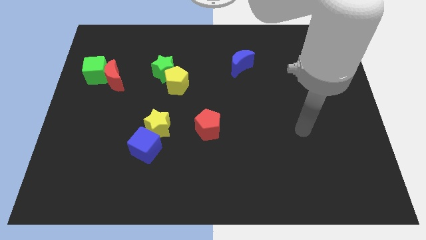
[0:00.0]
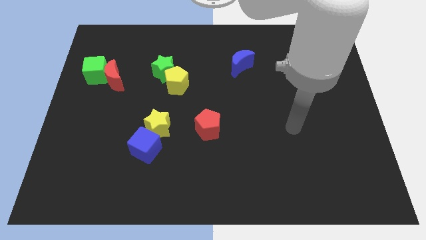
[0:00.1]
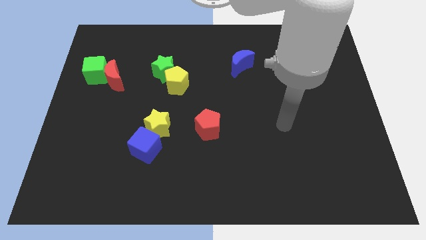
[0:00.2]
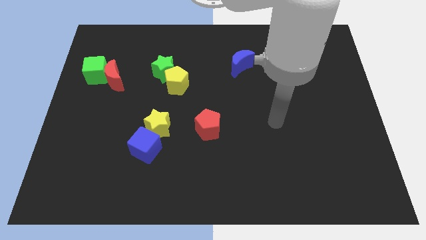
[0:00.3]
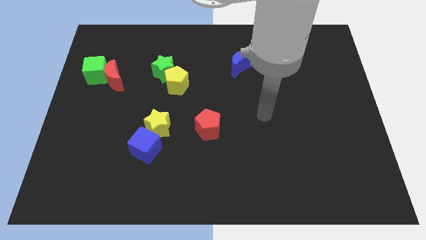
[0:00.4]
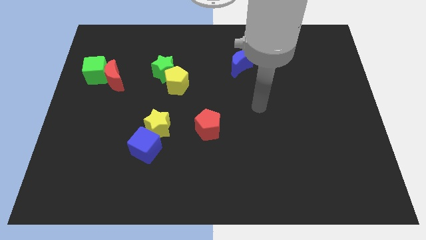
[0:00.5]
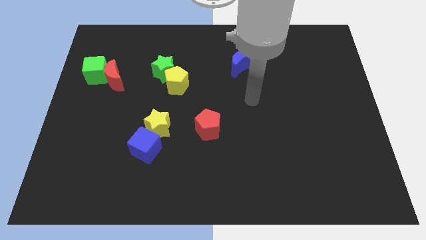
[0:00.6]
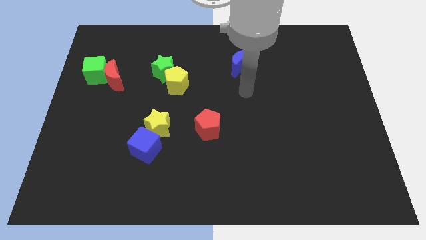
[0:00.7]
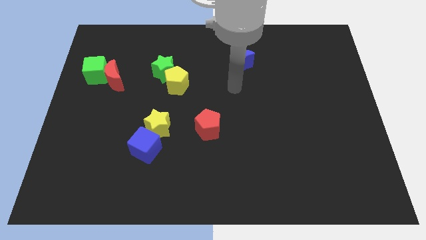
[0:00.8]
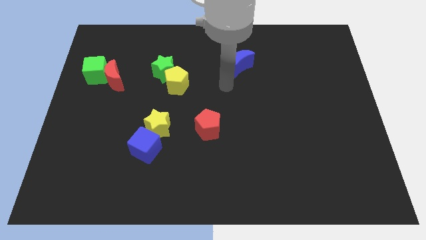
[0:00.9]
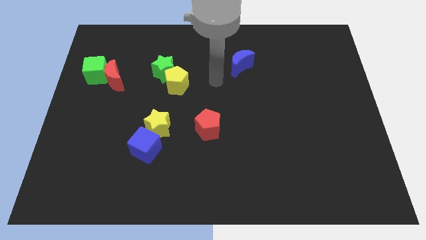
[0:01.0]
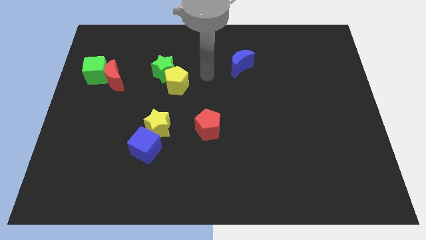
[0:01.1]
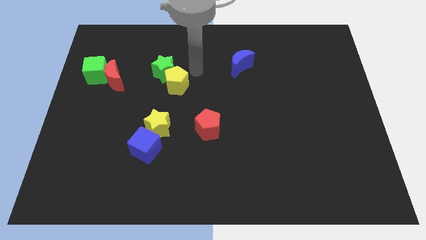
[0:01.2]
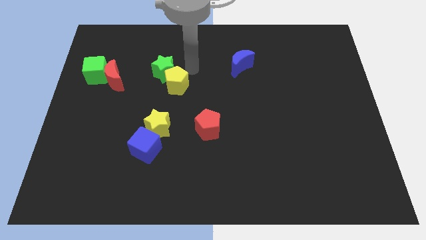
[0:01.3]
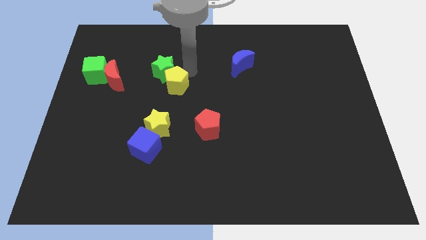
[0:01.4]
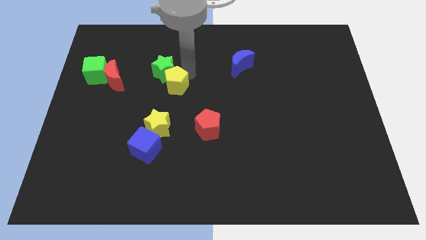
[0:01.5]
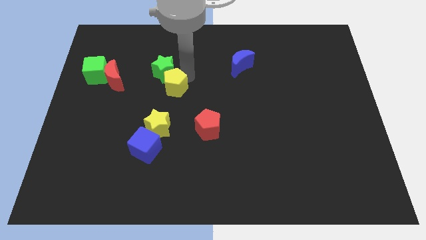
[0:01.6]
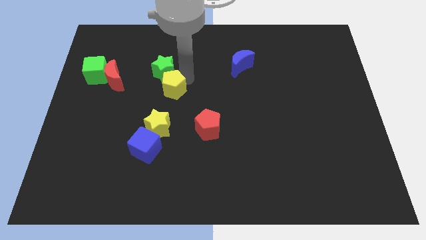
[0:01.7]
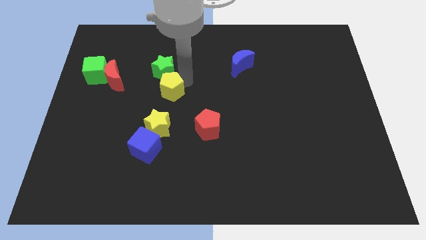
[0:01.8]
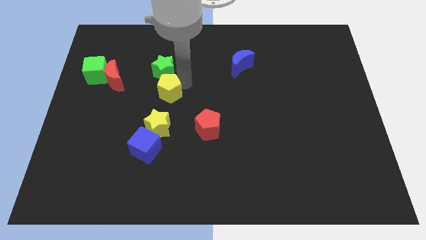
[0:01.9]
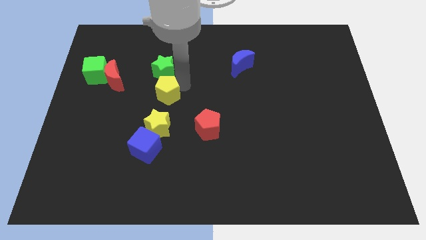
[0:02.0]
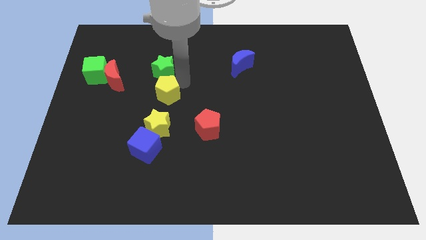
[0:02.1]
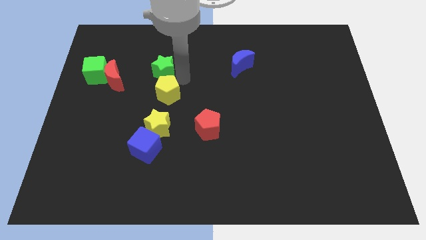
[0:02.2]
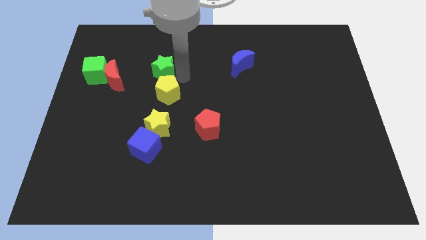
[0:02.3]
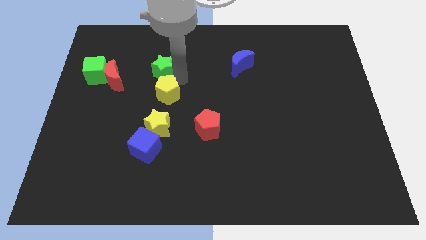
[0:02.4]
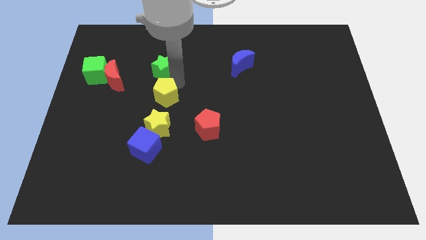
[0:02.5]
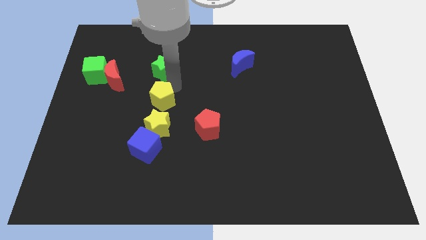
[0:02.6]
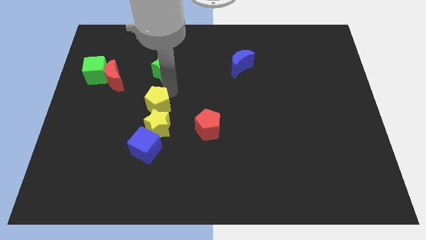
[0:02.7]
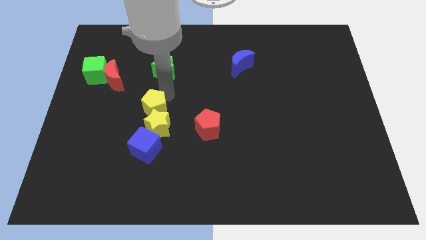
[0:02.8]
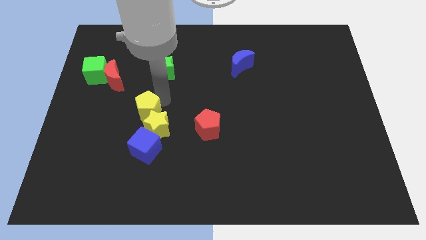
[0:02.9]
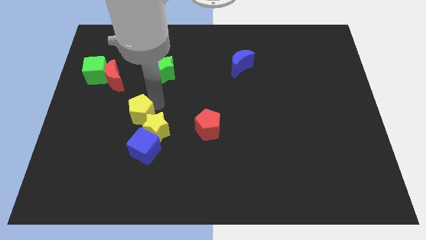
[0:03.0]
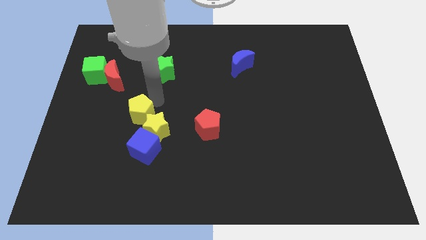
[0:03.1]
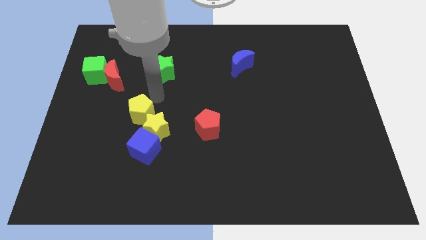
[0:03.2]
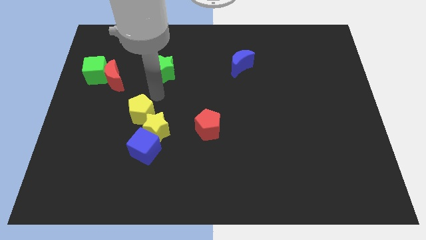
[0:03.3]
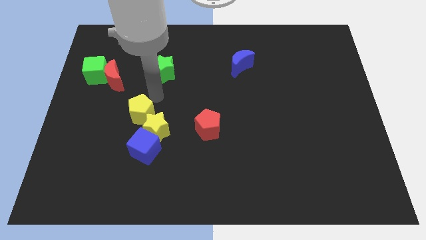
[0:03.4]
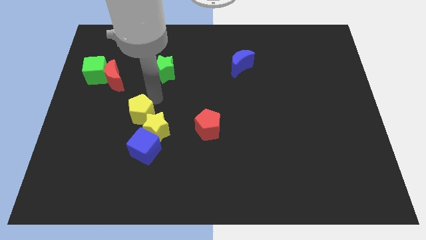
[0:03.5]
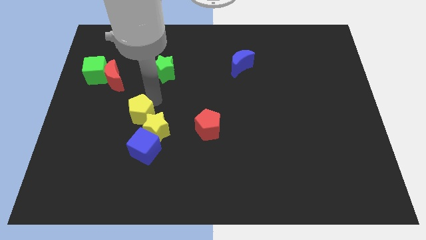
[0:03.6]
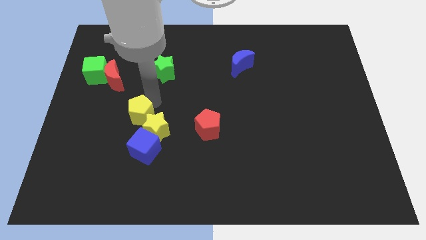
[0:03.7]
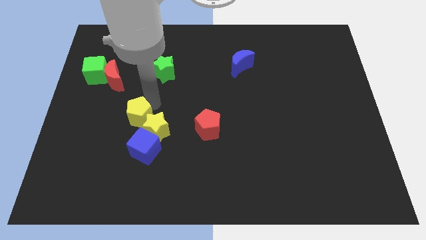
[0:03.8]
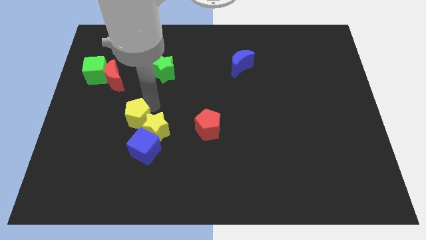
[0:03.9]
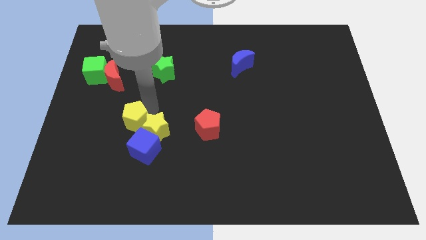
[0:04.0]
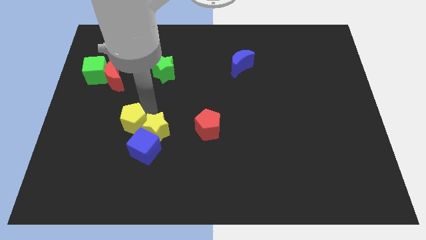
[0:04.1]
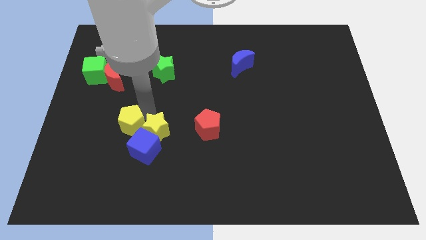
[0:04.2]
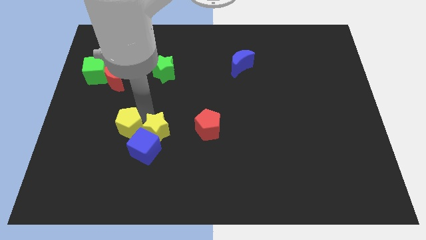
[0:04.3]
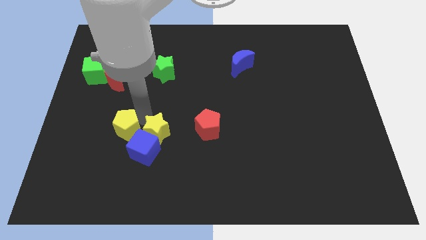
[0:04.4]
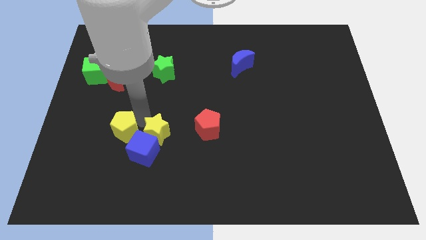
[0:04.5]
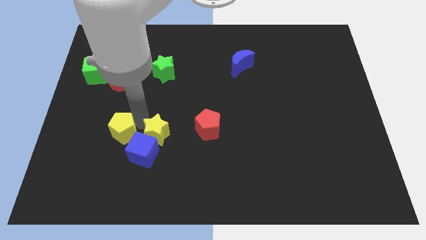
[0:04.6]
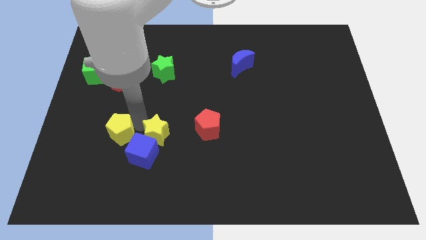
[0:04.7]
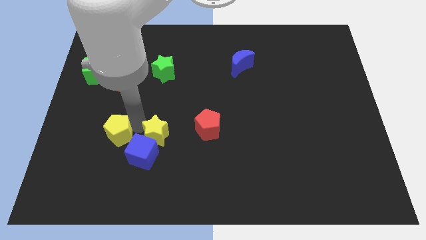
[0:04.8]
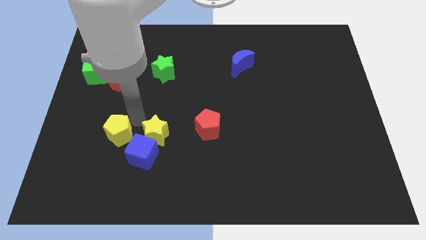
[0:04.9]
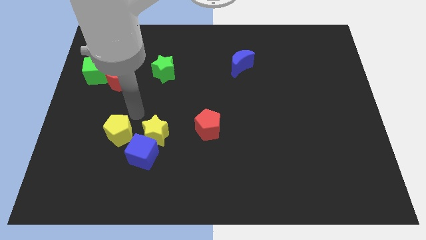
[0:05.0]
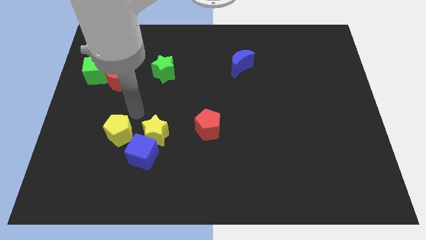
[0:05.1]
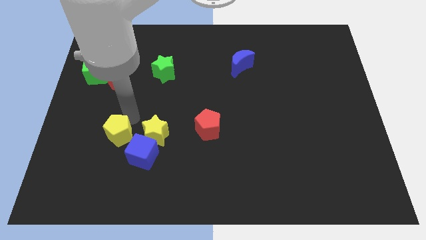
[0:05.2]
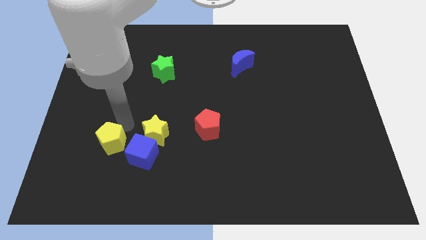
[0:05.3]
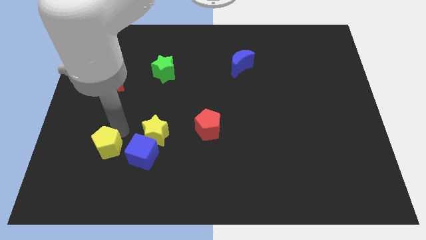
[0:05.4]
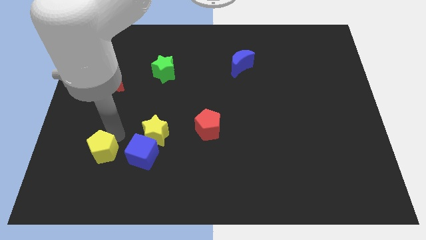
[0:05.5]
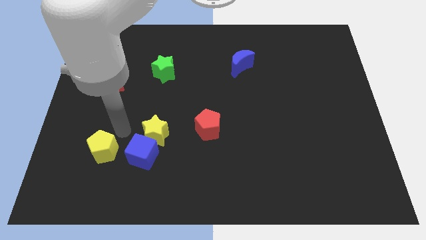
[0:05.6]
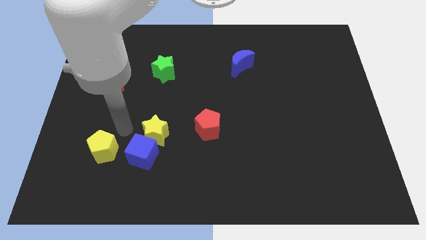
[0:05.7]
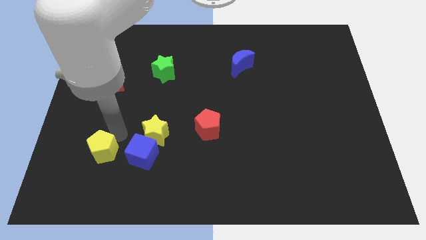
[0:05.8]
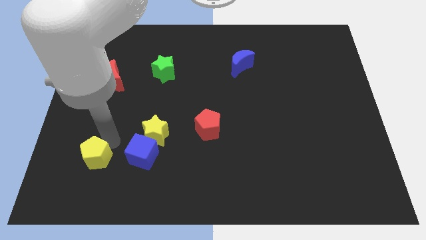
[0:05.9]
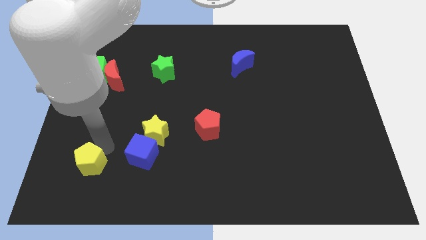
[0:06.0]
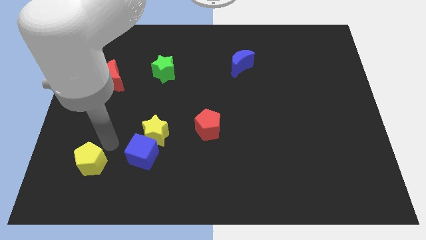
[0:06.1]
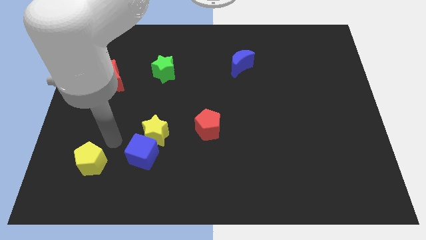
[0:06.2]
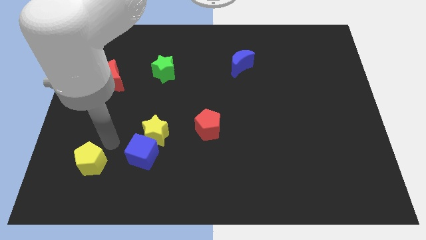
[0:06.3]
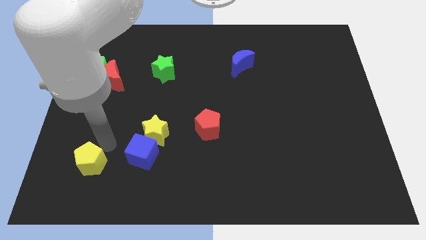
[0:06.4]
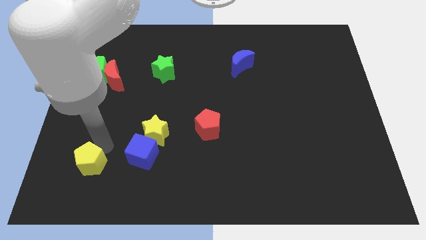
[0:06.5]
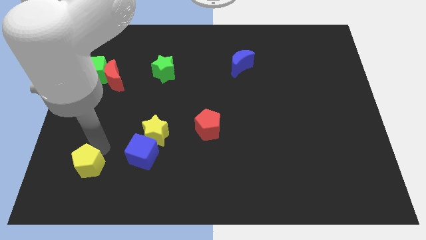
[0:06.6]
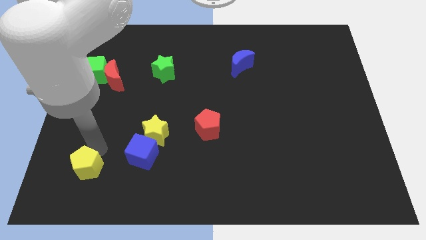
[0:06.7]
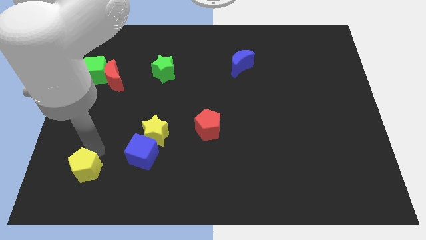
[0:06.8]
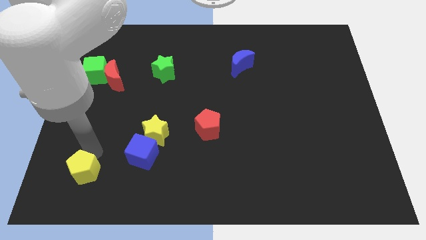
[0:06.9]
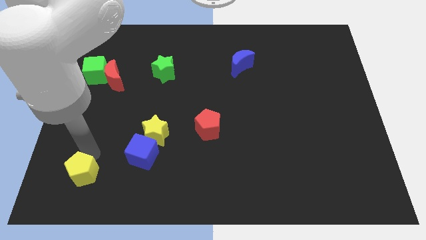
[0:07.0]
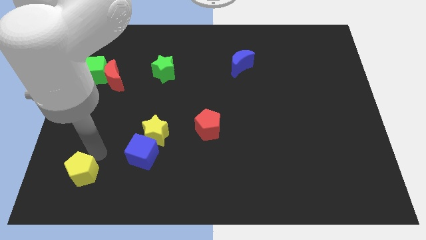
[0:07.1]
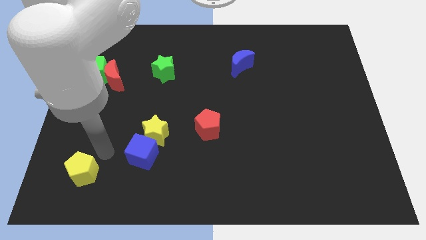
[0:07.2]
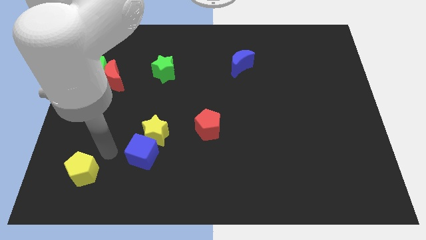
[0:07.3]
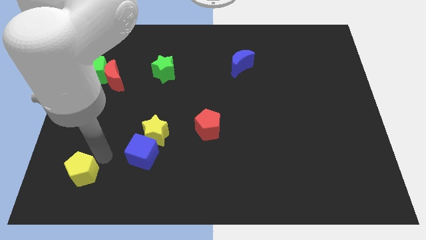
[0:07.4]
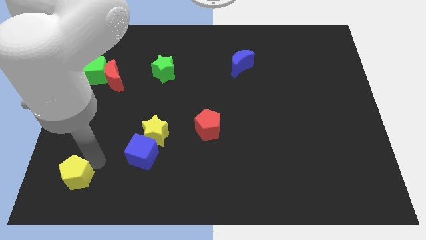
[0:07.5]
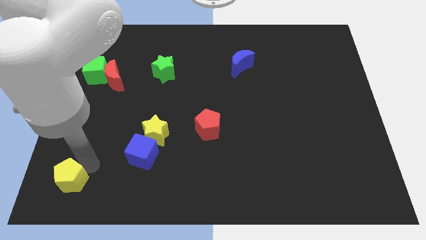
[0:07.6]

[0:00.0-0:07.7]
push the yellow pentagon to the bottom left

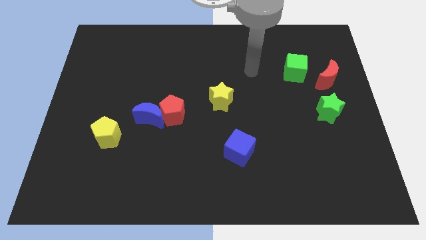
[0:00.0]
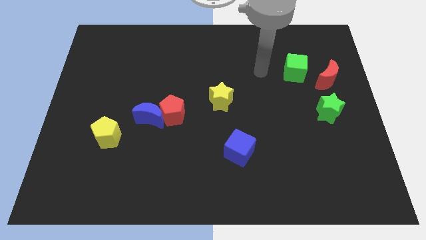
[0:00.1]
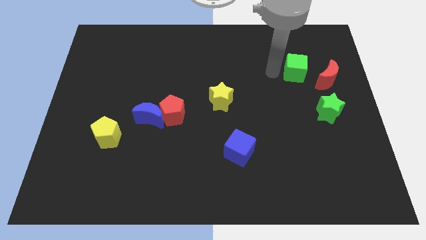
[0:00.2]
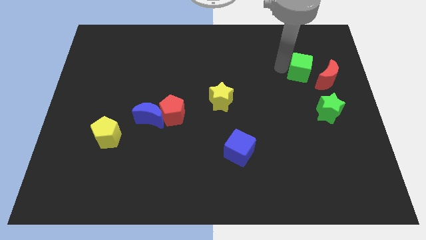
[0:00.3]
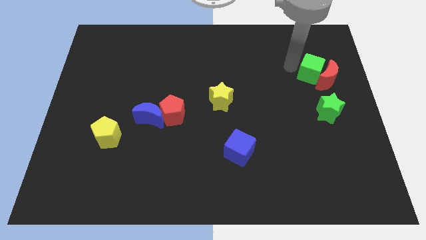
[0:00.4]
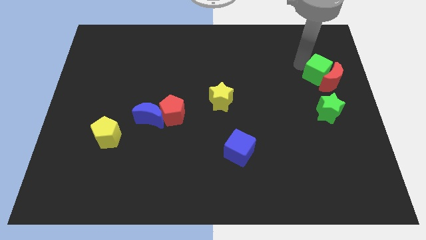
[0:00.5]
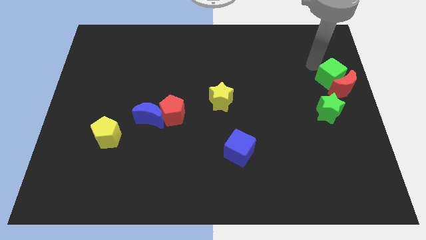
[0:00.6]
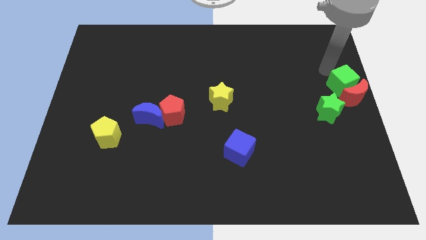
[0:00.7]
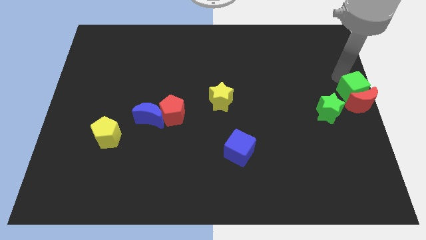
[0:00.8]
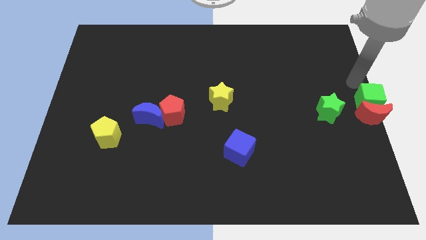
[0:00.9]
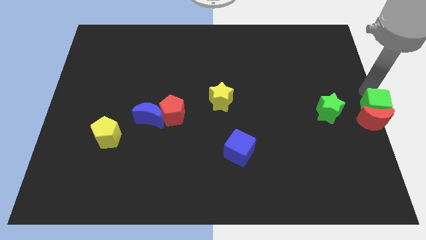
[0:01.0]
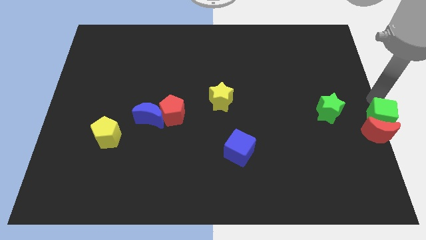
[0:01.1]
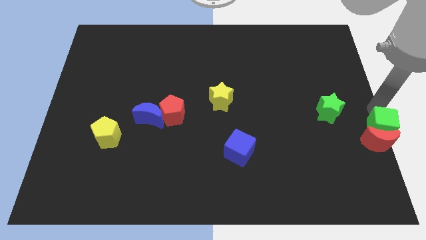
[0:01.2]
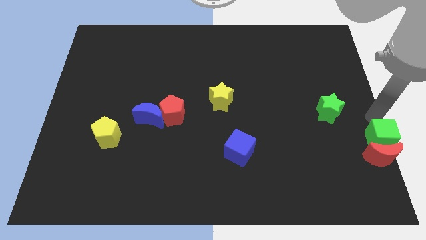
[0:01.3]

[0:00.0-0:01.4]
slide the red moon to the bottom right of the board
